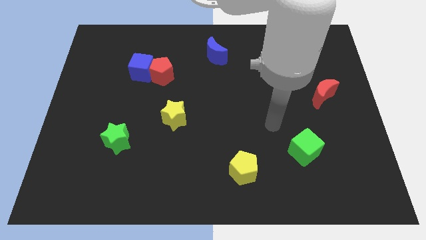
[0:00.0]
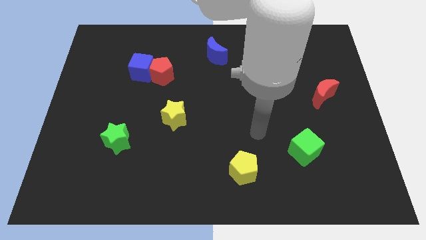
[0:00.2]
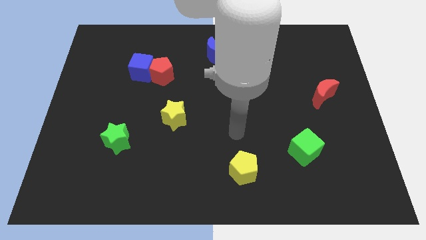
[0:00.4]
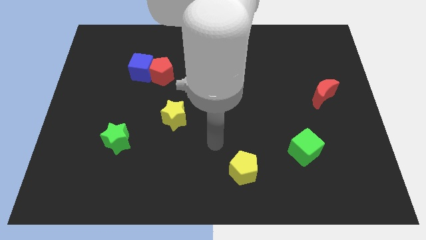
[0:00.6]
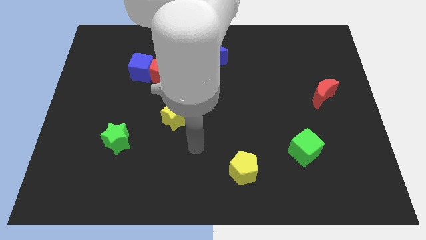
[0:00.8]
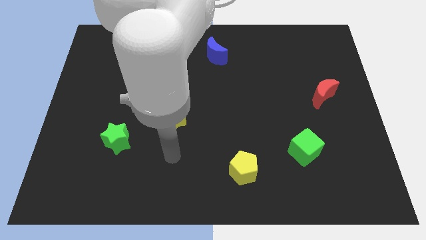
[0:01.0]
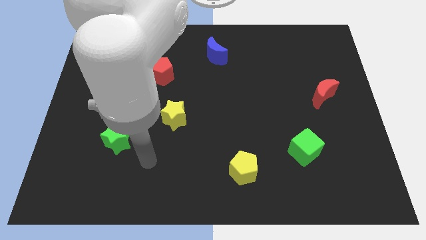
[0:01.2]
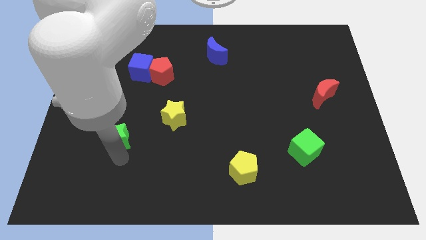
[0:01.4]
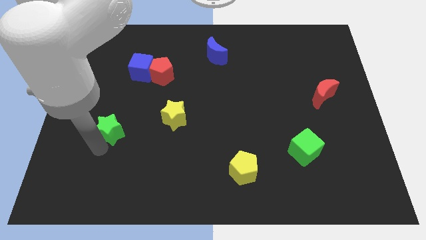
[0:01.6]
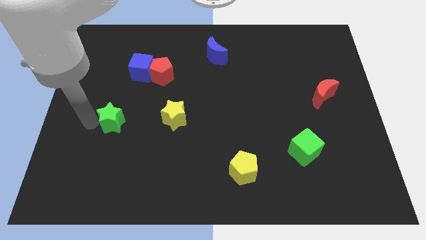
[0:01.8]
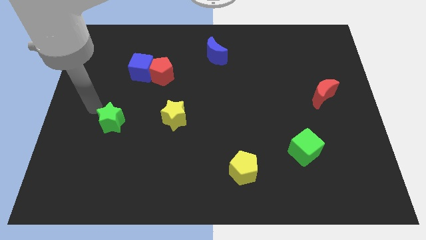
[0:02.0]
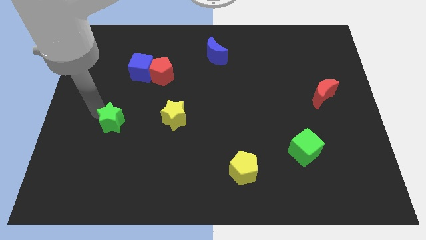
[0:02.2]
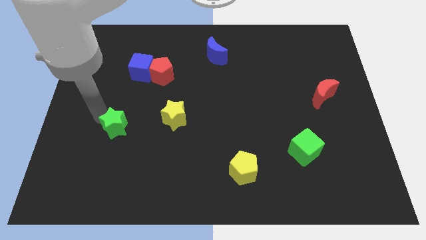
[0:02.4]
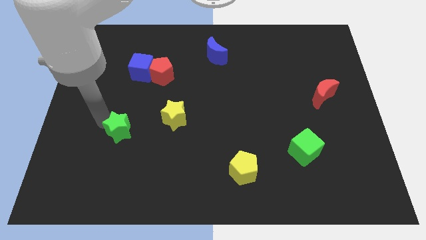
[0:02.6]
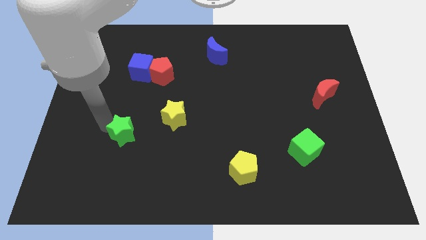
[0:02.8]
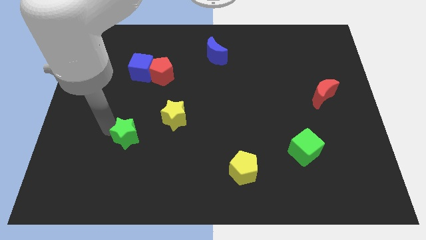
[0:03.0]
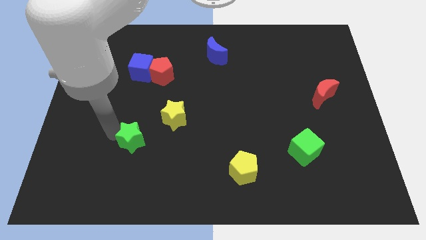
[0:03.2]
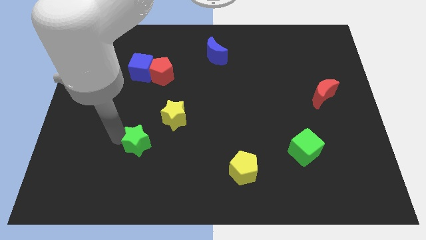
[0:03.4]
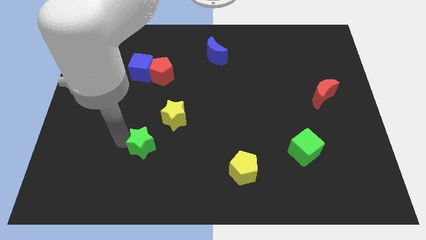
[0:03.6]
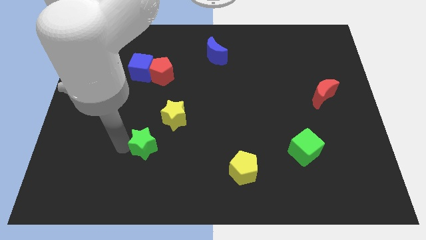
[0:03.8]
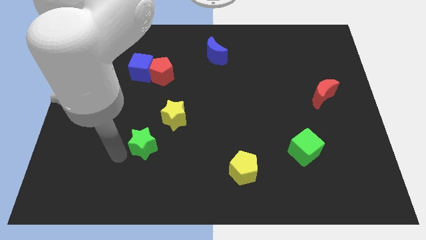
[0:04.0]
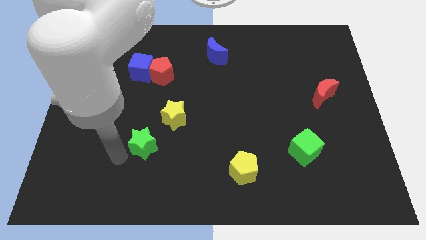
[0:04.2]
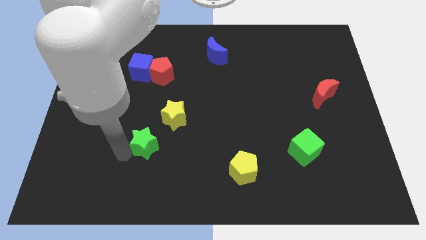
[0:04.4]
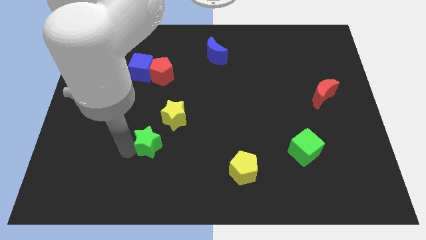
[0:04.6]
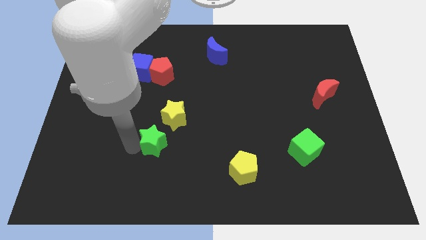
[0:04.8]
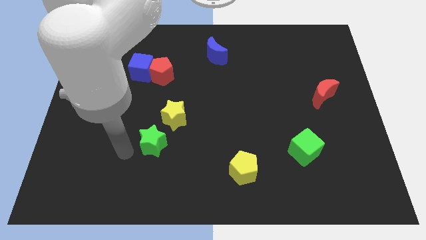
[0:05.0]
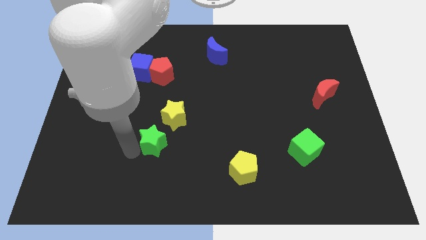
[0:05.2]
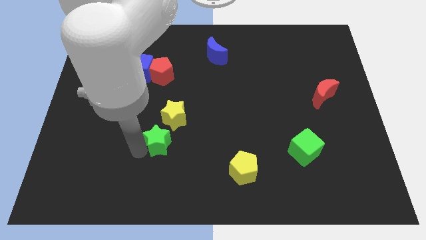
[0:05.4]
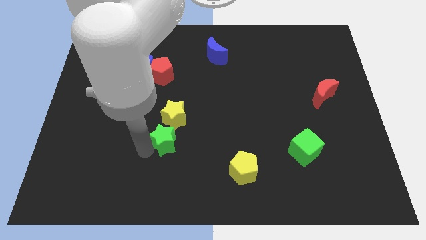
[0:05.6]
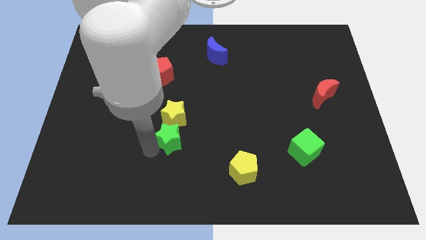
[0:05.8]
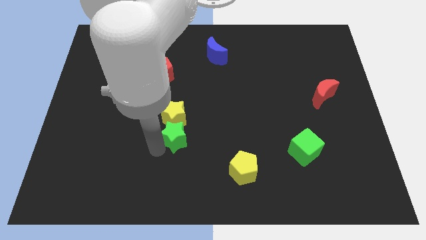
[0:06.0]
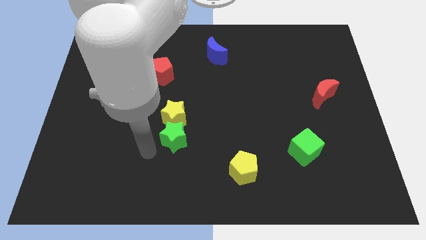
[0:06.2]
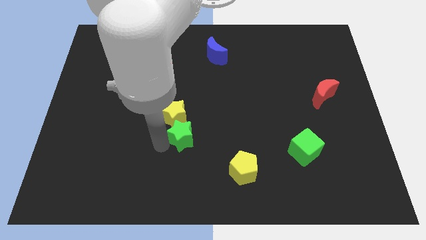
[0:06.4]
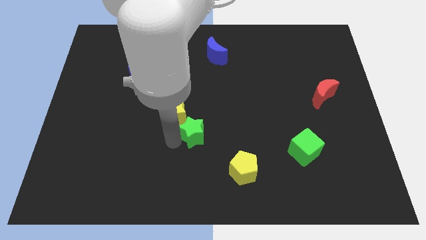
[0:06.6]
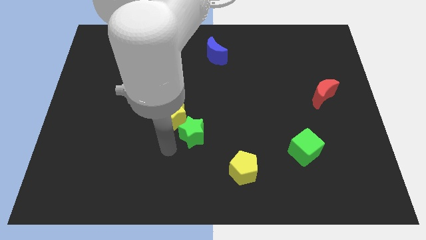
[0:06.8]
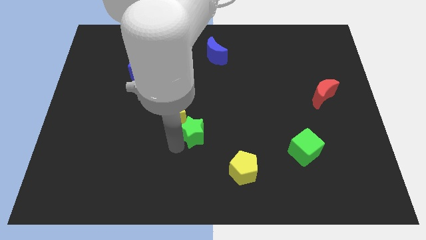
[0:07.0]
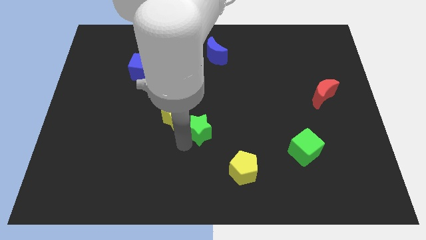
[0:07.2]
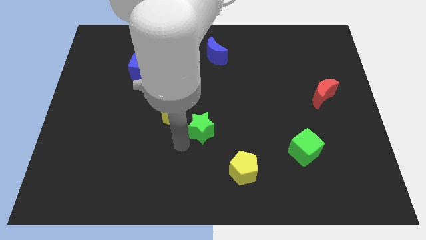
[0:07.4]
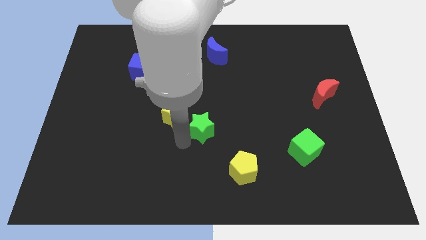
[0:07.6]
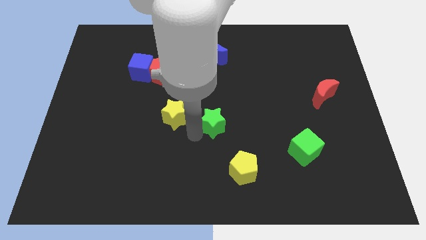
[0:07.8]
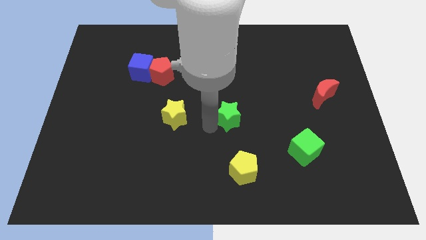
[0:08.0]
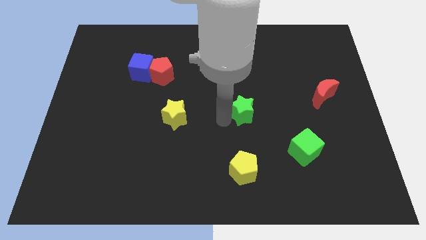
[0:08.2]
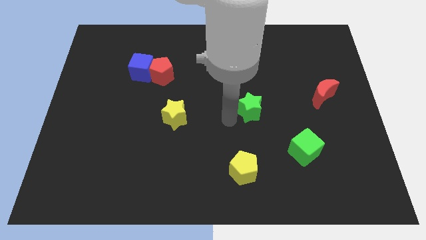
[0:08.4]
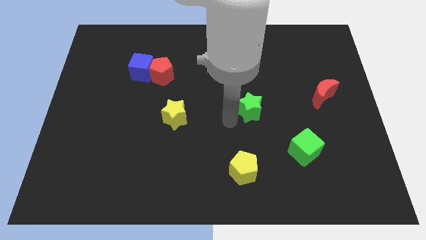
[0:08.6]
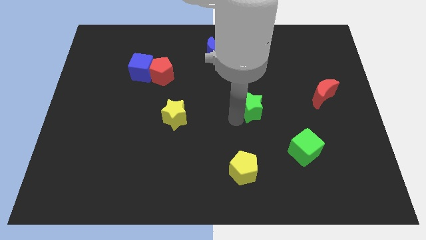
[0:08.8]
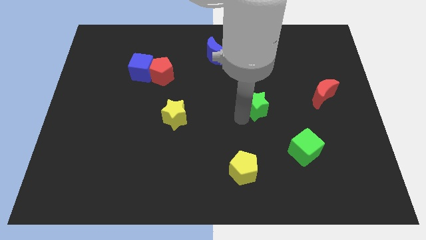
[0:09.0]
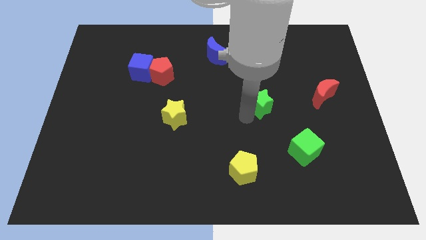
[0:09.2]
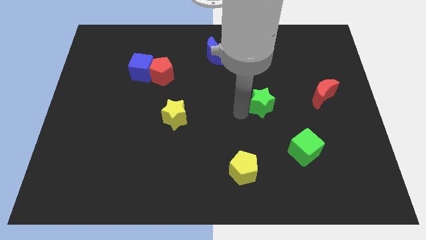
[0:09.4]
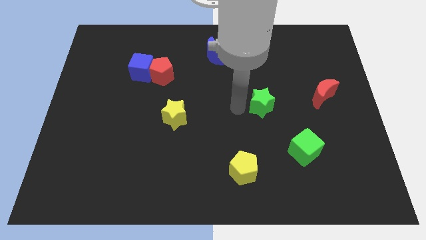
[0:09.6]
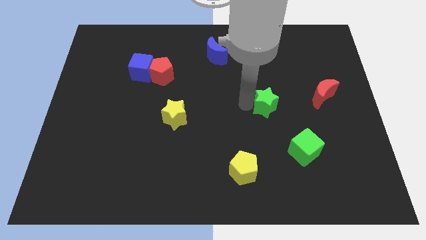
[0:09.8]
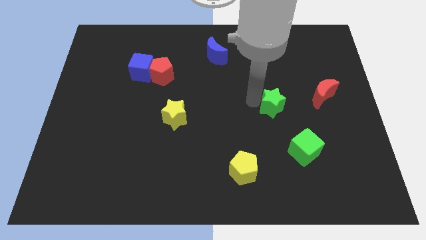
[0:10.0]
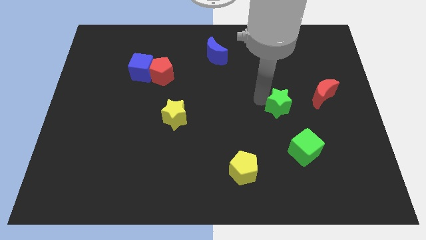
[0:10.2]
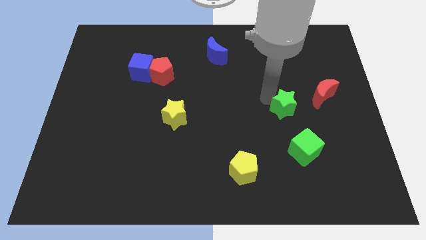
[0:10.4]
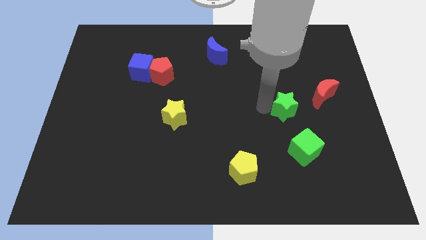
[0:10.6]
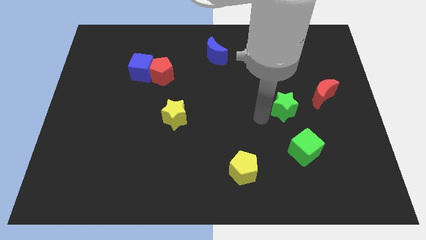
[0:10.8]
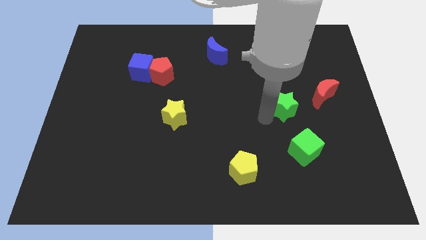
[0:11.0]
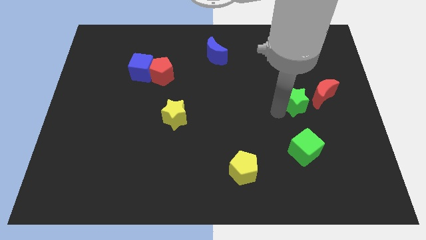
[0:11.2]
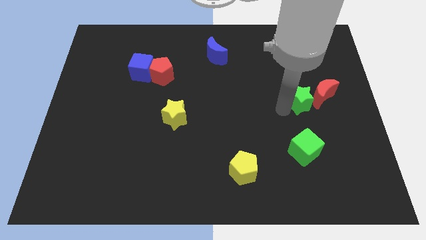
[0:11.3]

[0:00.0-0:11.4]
move the green star close to the red moon

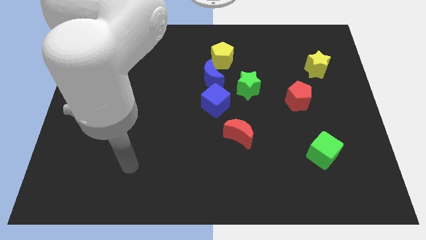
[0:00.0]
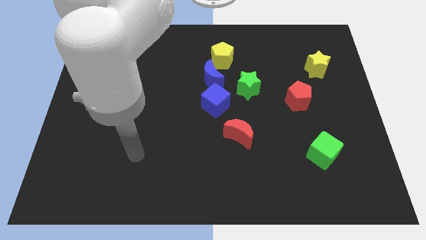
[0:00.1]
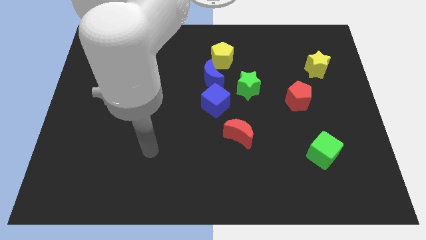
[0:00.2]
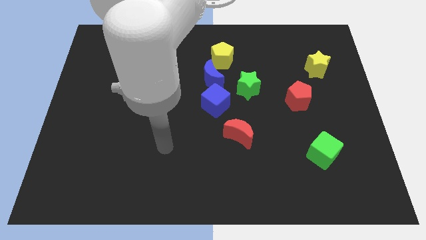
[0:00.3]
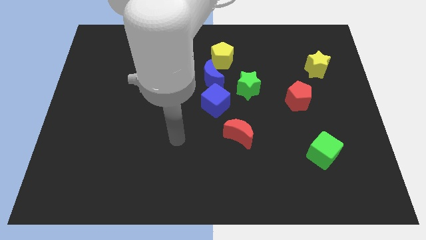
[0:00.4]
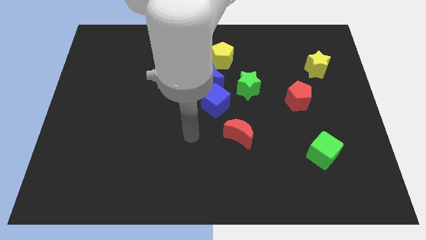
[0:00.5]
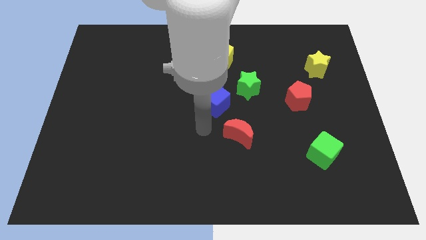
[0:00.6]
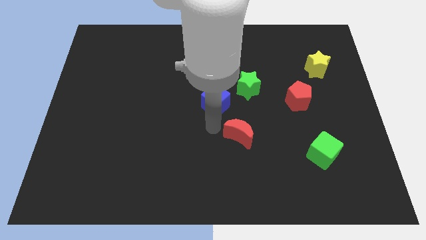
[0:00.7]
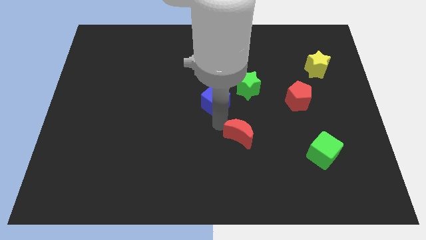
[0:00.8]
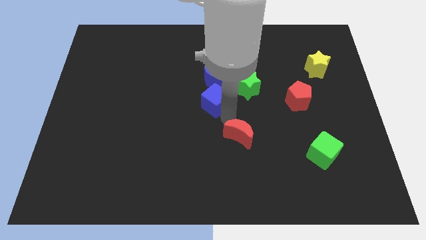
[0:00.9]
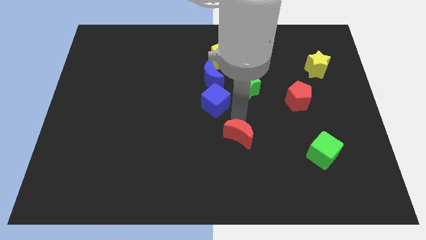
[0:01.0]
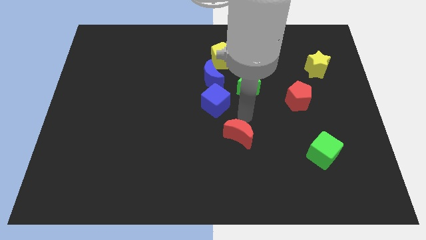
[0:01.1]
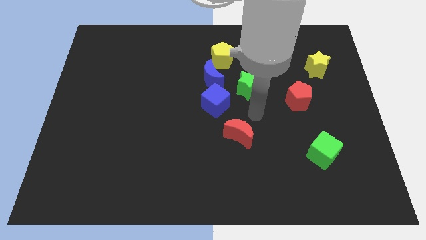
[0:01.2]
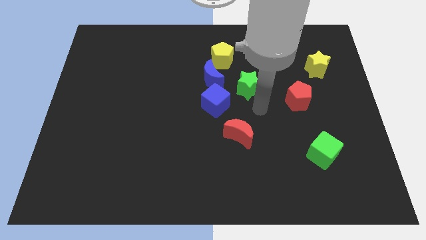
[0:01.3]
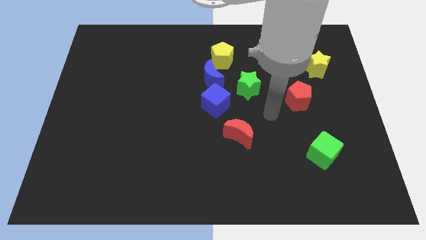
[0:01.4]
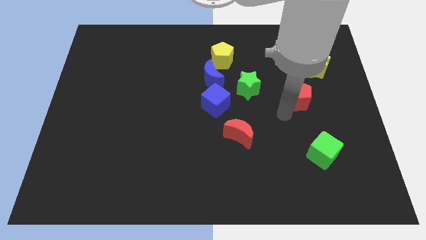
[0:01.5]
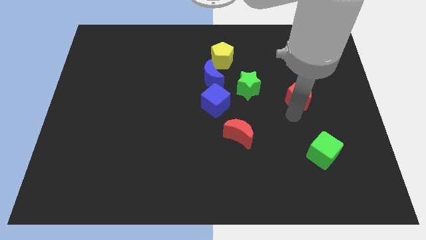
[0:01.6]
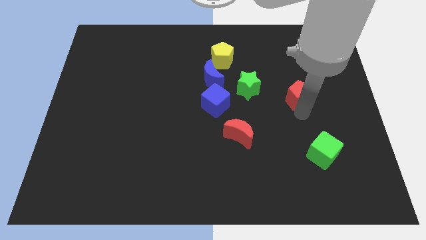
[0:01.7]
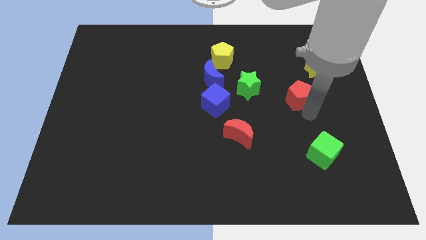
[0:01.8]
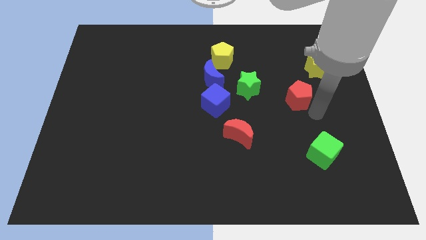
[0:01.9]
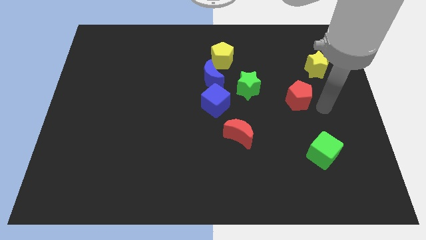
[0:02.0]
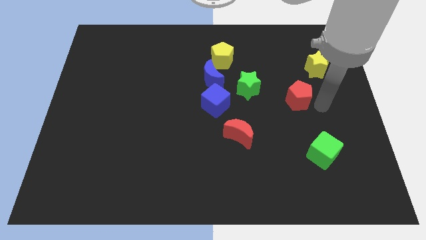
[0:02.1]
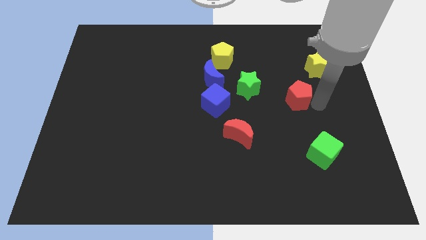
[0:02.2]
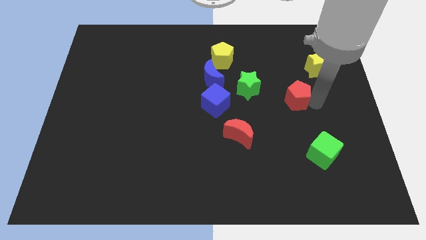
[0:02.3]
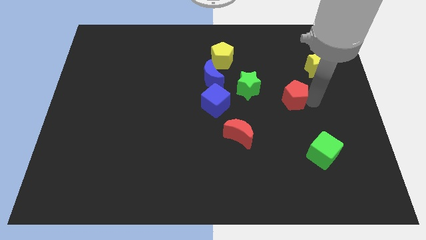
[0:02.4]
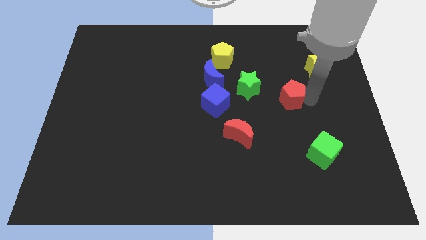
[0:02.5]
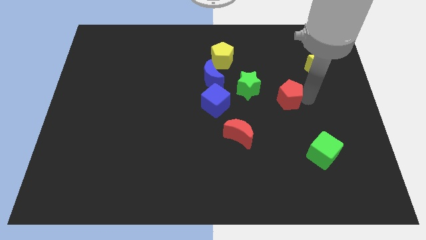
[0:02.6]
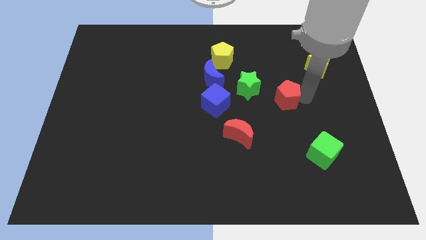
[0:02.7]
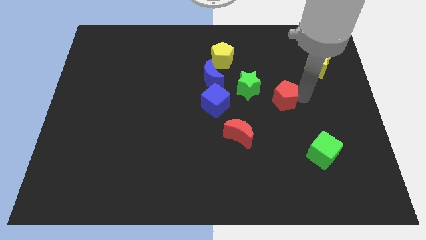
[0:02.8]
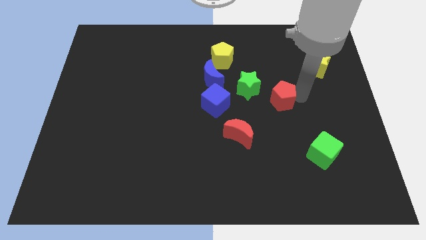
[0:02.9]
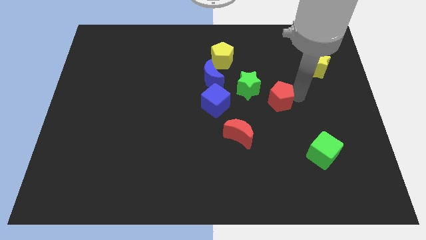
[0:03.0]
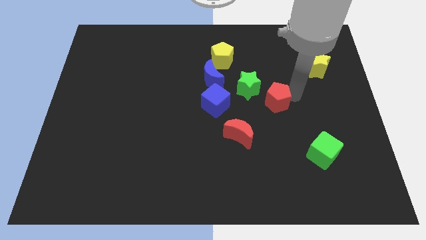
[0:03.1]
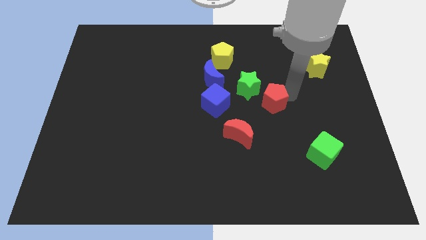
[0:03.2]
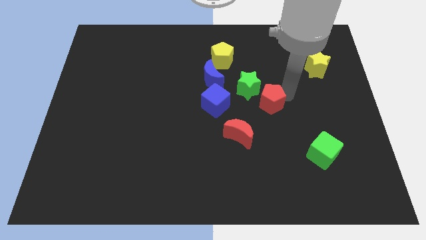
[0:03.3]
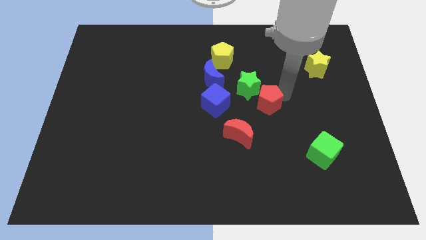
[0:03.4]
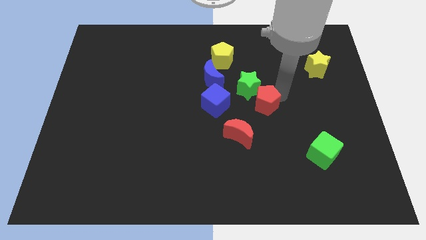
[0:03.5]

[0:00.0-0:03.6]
push the red pentagon next to the green star
